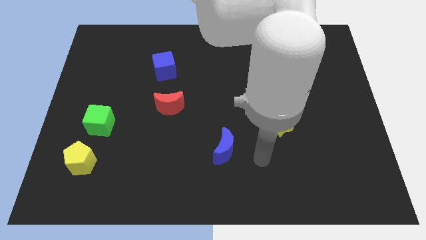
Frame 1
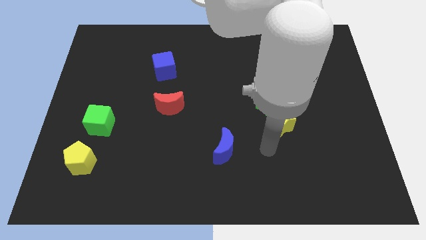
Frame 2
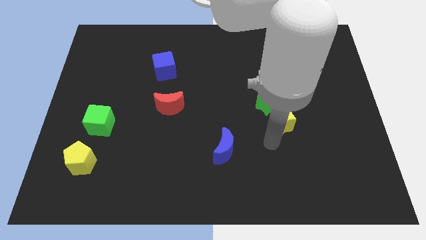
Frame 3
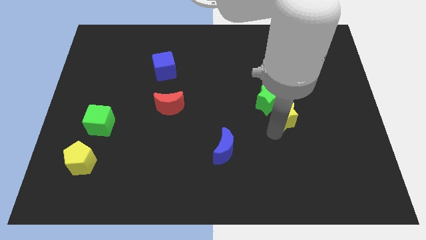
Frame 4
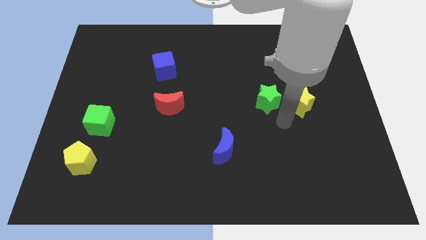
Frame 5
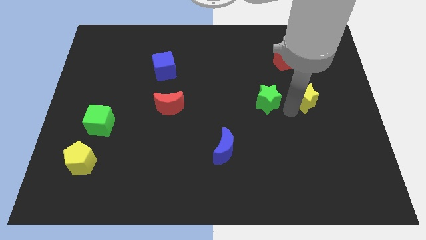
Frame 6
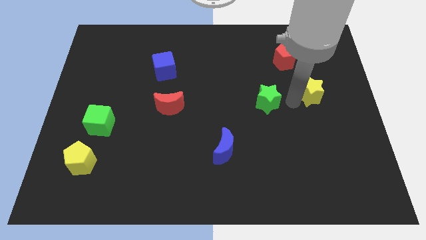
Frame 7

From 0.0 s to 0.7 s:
separate the green star from the yellow star

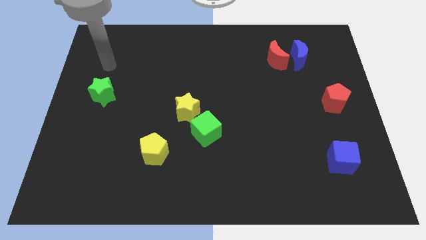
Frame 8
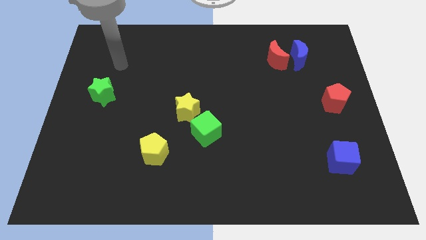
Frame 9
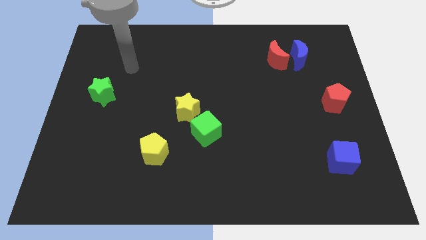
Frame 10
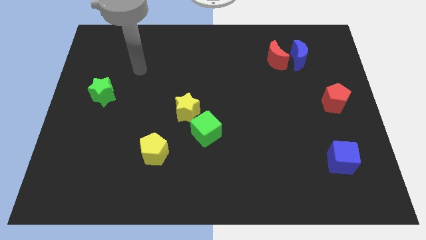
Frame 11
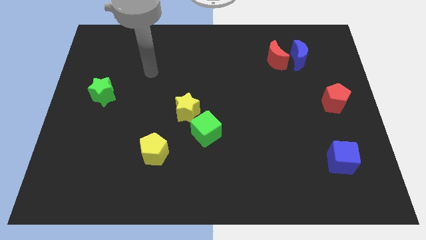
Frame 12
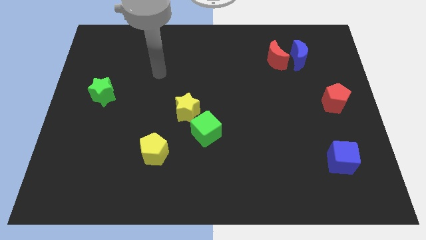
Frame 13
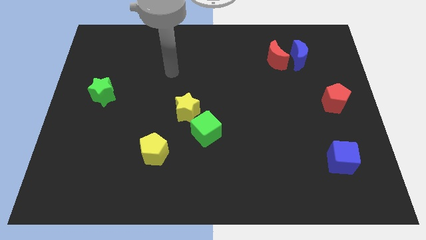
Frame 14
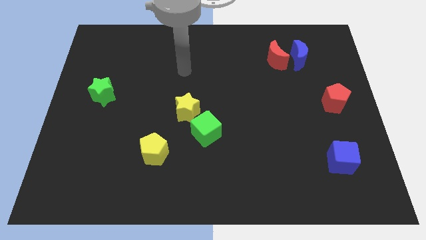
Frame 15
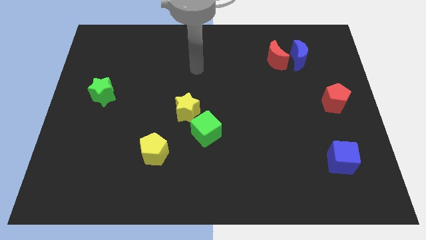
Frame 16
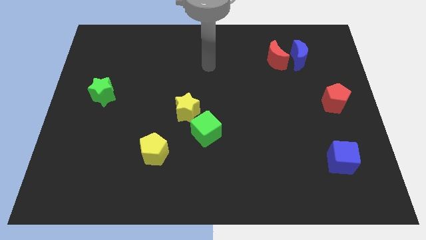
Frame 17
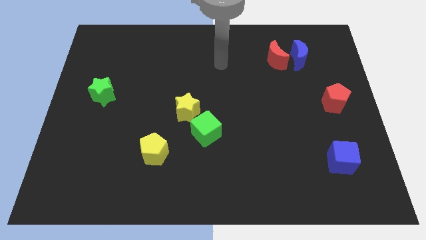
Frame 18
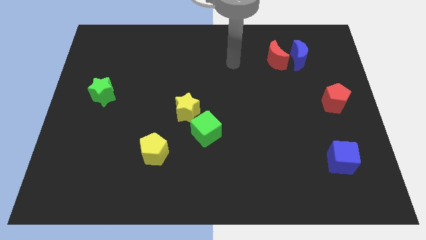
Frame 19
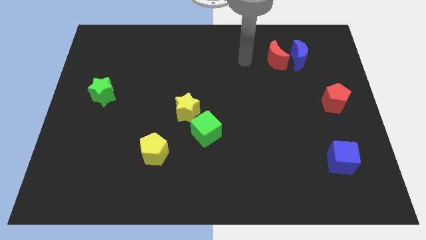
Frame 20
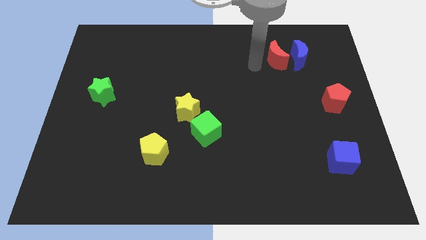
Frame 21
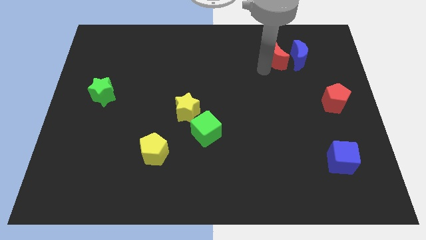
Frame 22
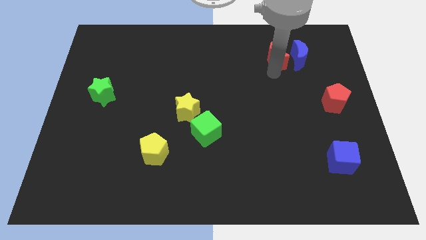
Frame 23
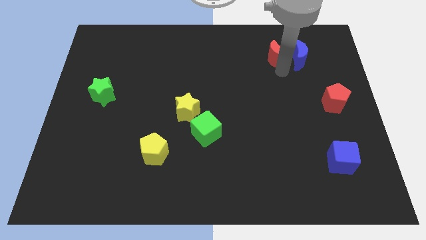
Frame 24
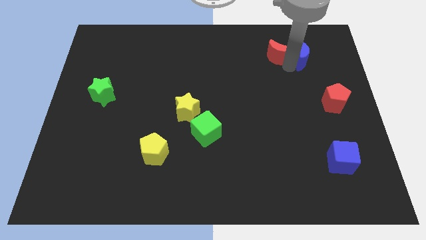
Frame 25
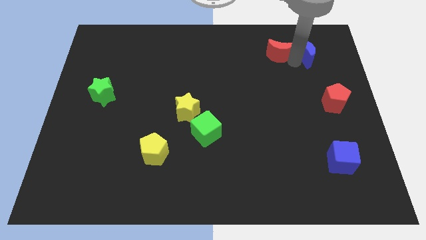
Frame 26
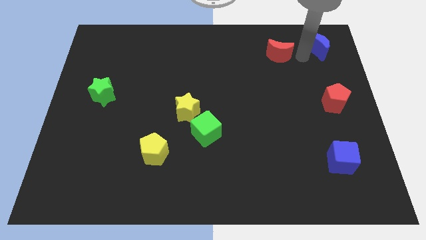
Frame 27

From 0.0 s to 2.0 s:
pull the red moon apart from the blue moon

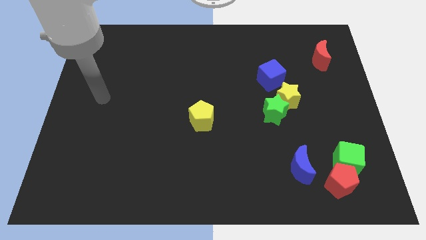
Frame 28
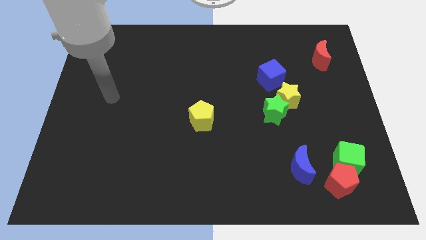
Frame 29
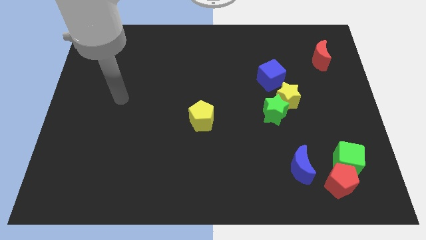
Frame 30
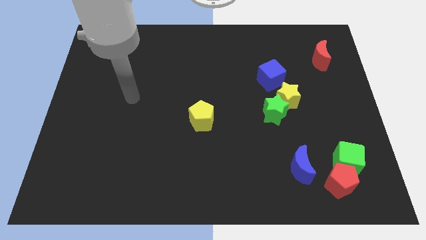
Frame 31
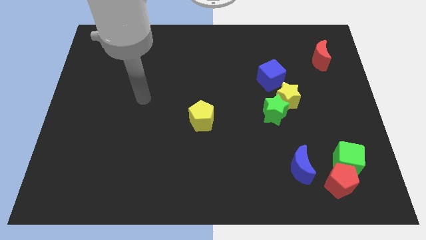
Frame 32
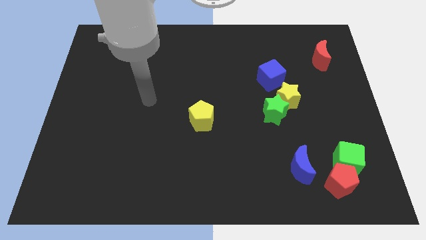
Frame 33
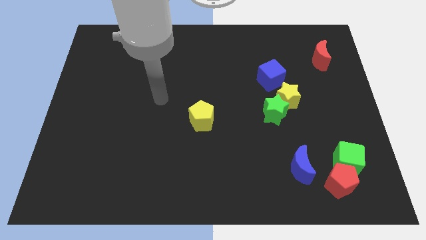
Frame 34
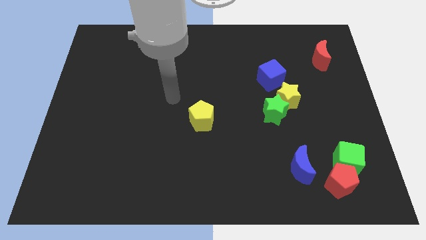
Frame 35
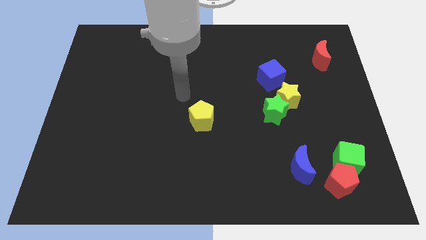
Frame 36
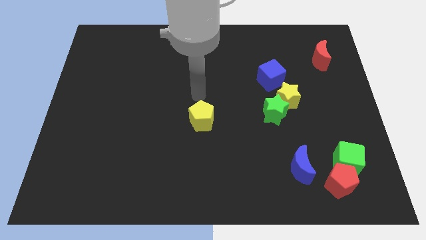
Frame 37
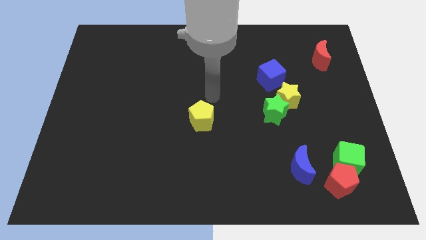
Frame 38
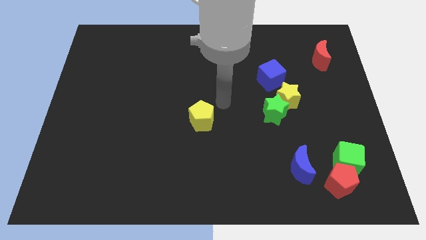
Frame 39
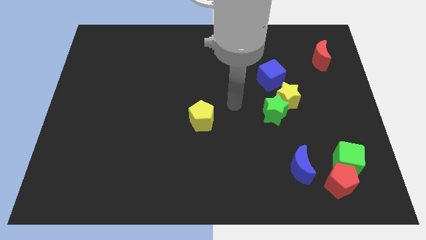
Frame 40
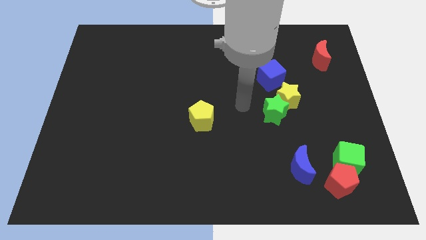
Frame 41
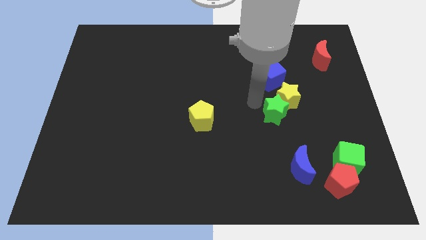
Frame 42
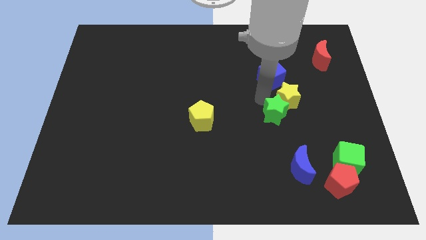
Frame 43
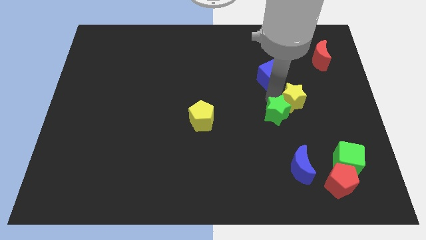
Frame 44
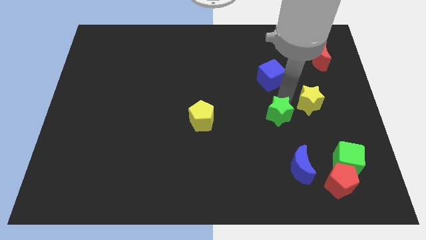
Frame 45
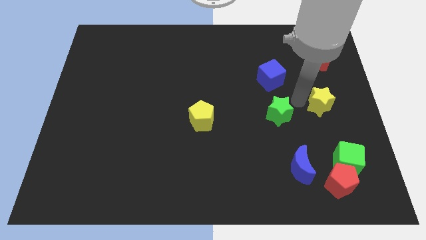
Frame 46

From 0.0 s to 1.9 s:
pull the green star apart from the yellow star

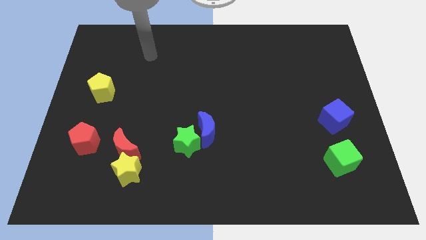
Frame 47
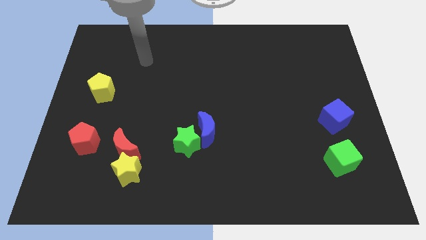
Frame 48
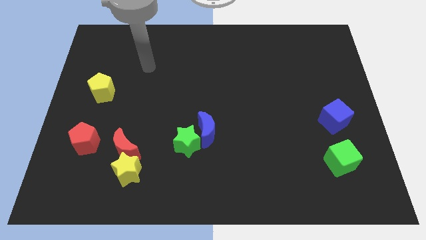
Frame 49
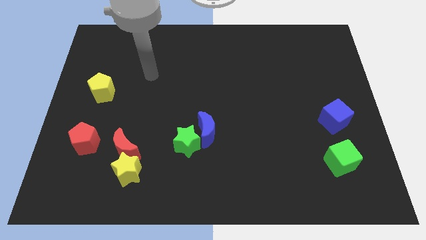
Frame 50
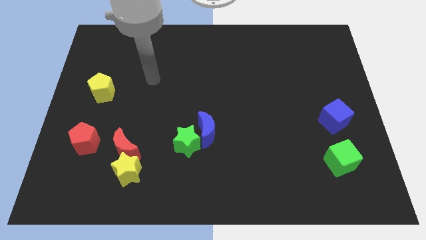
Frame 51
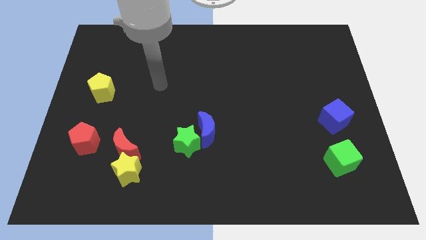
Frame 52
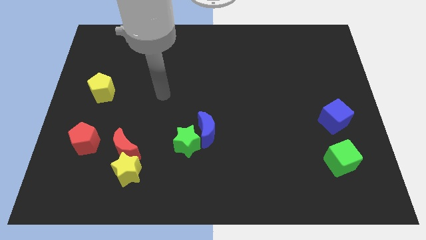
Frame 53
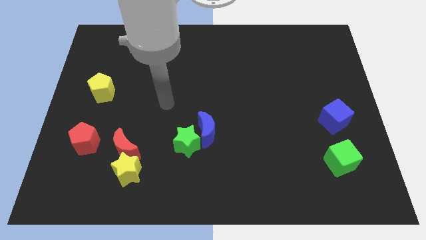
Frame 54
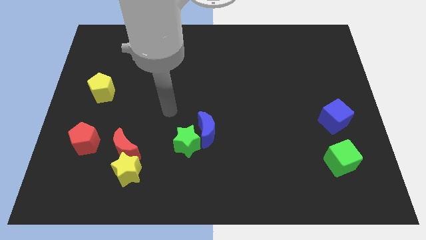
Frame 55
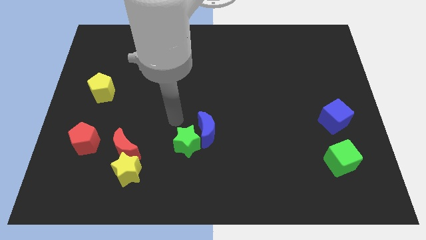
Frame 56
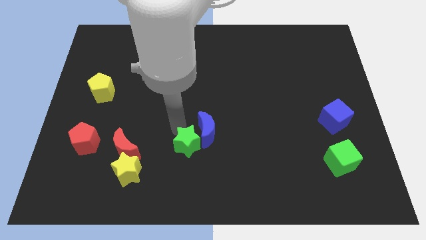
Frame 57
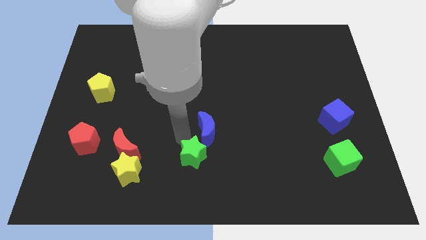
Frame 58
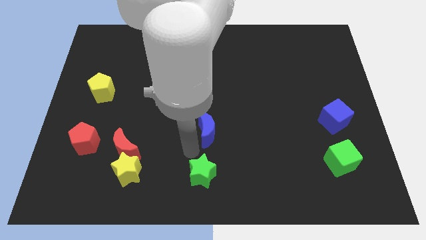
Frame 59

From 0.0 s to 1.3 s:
separate the blue moon from the green star

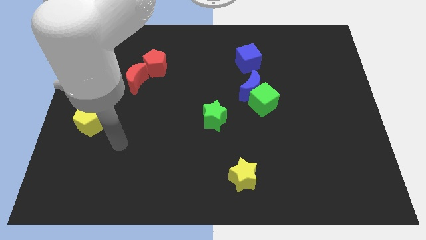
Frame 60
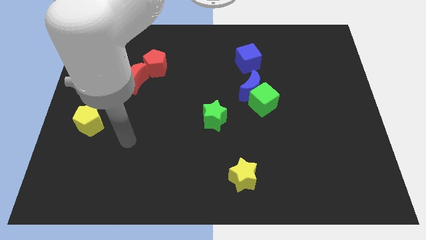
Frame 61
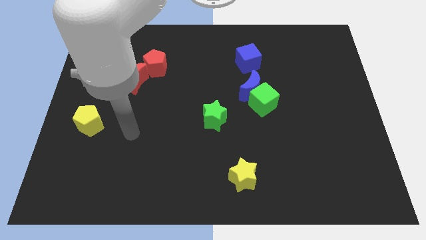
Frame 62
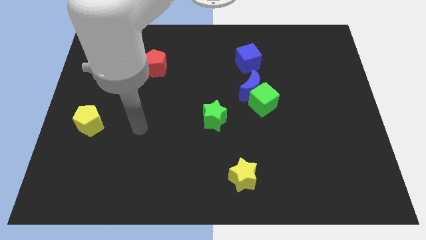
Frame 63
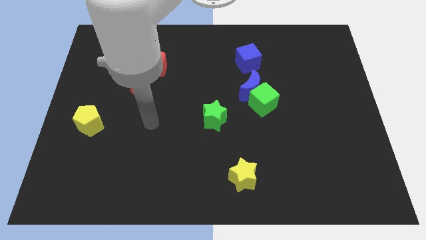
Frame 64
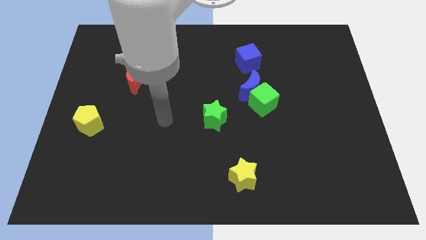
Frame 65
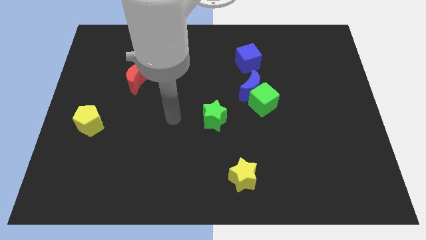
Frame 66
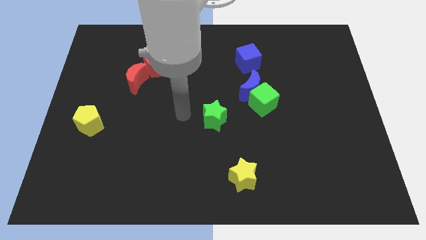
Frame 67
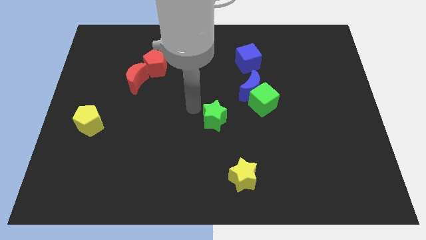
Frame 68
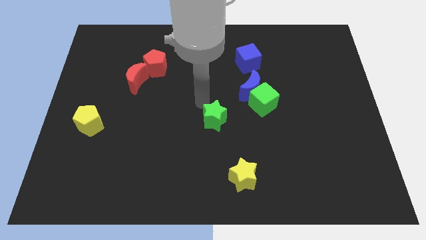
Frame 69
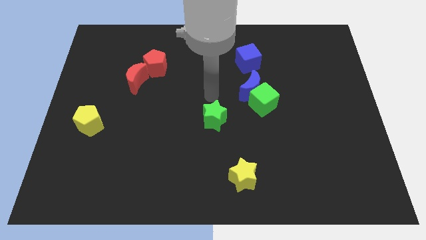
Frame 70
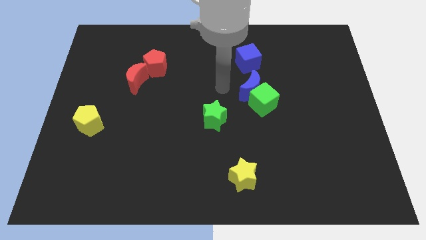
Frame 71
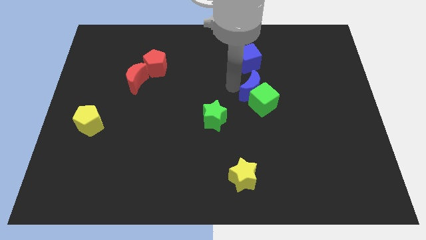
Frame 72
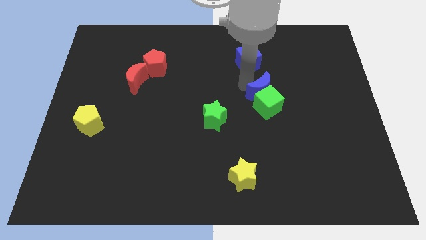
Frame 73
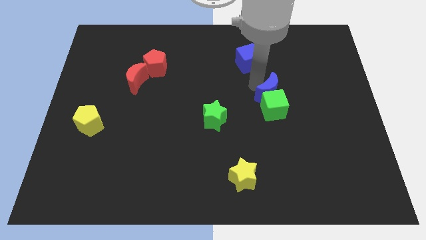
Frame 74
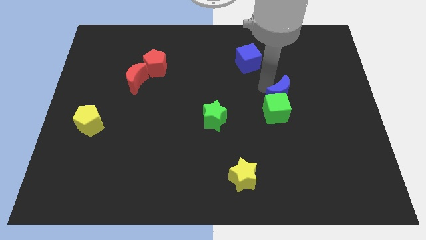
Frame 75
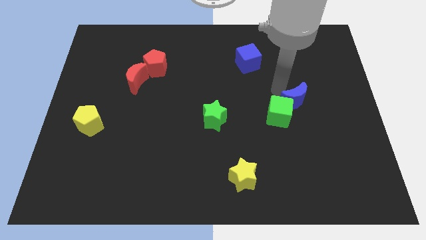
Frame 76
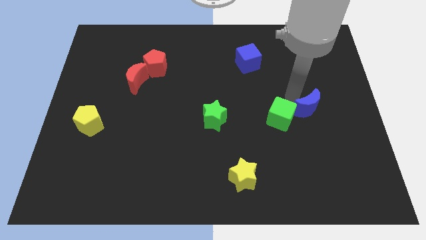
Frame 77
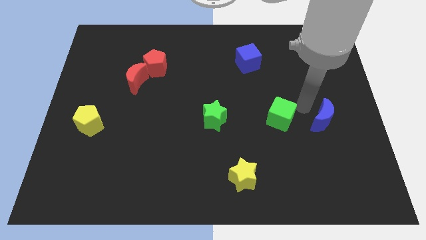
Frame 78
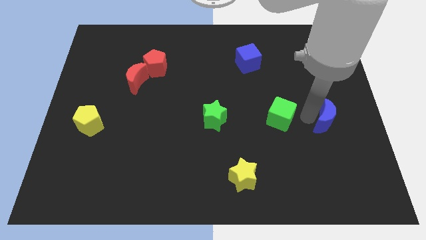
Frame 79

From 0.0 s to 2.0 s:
separate the green cube from the blue moon

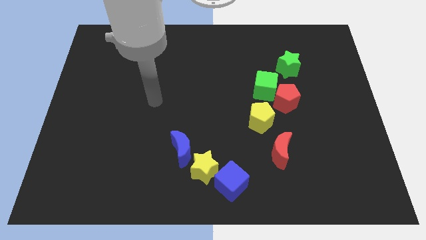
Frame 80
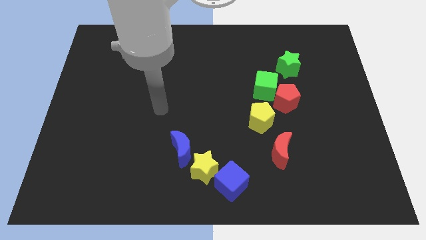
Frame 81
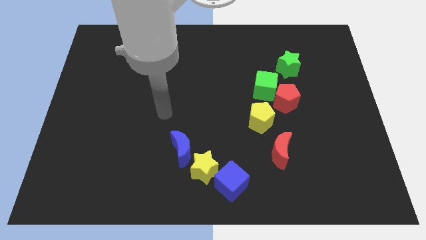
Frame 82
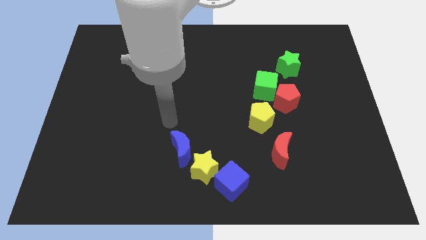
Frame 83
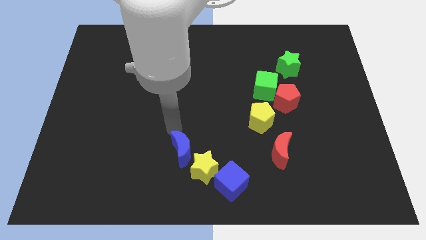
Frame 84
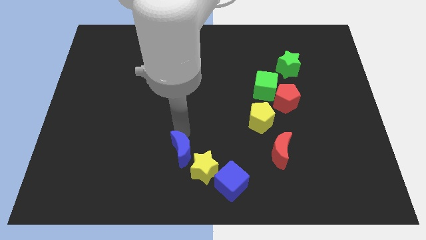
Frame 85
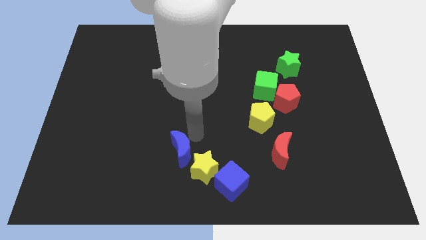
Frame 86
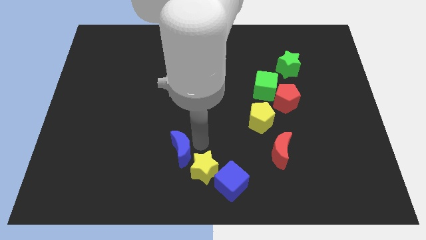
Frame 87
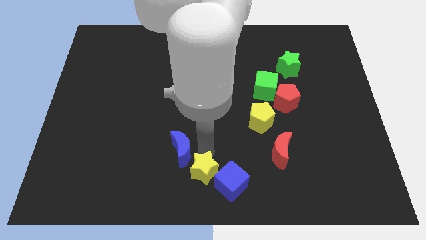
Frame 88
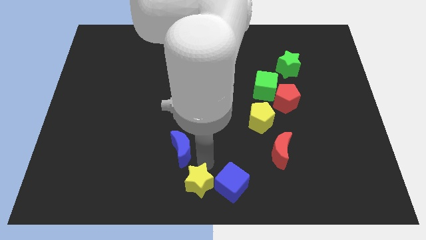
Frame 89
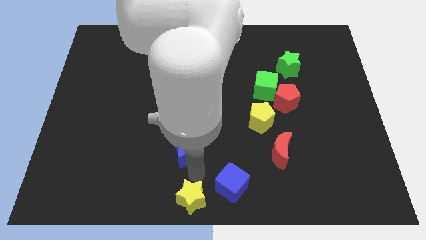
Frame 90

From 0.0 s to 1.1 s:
move the blue moon away from the yellow star
